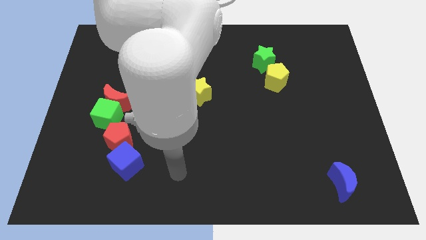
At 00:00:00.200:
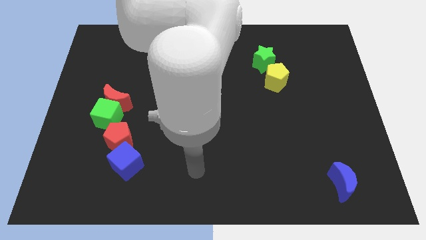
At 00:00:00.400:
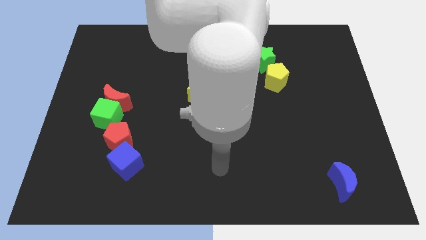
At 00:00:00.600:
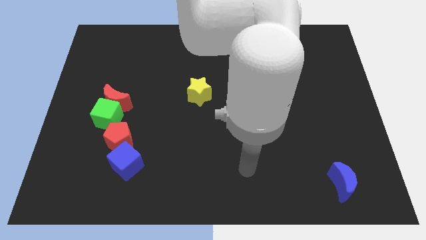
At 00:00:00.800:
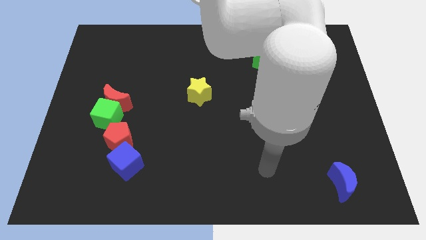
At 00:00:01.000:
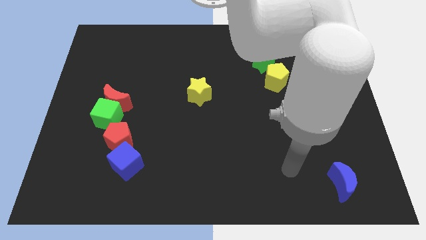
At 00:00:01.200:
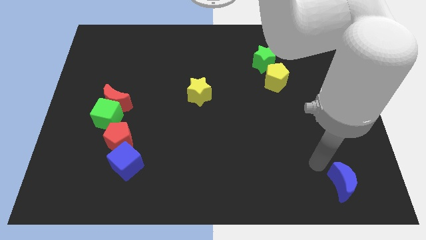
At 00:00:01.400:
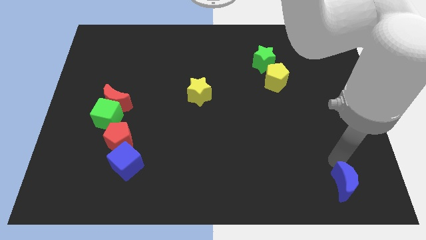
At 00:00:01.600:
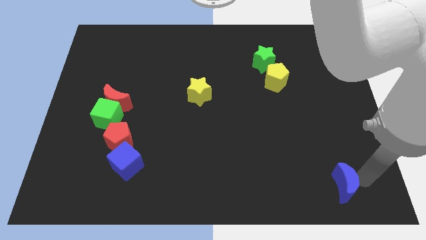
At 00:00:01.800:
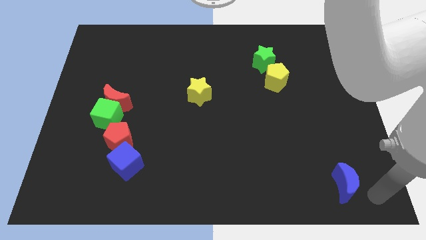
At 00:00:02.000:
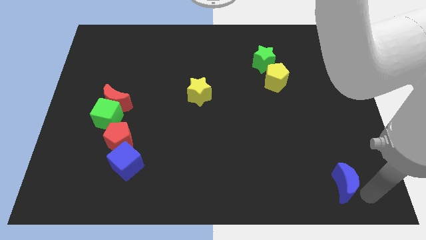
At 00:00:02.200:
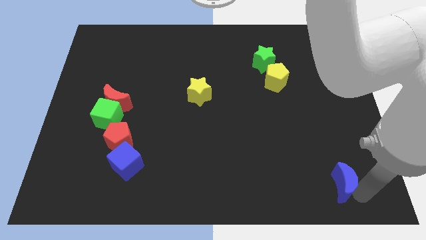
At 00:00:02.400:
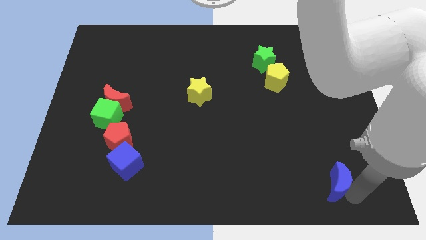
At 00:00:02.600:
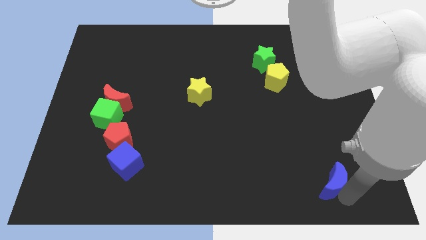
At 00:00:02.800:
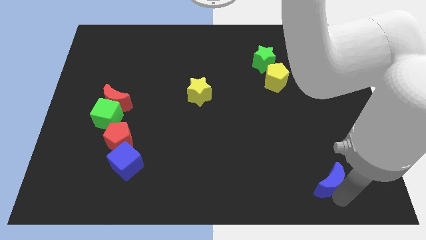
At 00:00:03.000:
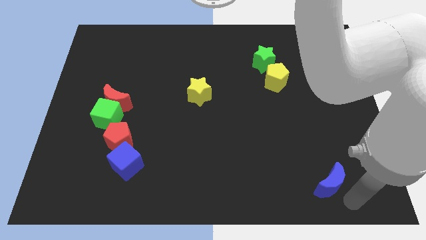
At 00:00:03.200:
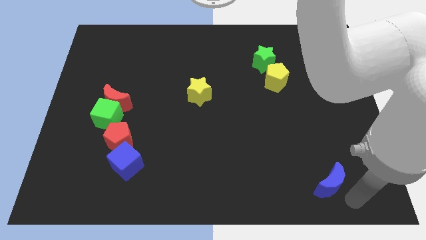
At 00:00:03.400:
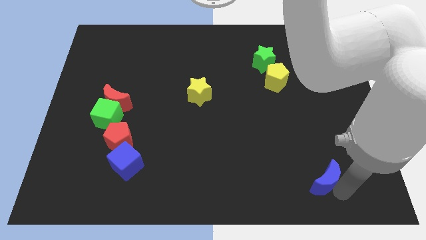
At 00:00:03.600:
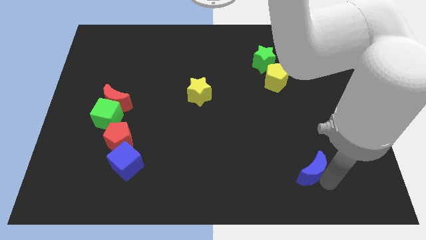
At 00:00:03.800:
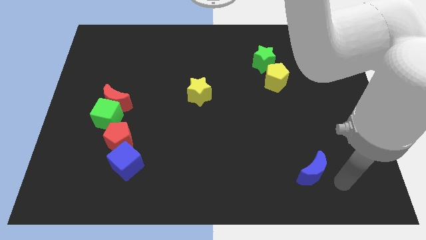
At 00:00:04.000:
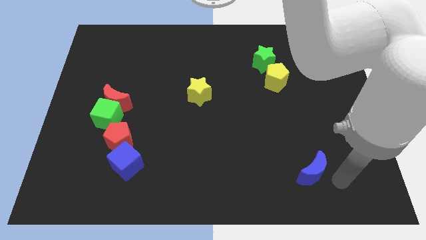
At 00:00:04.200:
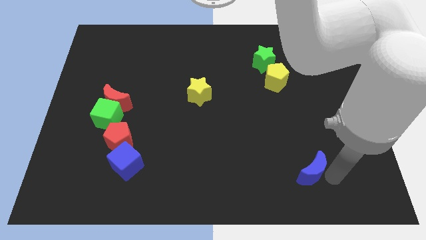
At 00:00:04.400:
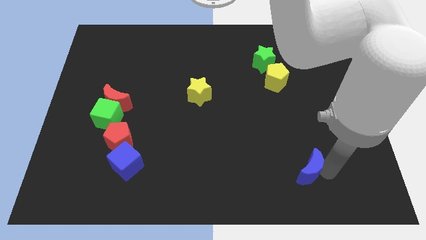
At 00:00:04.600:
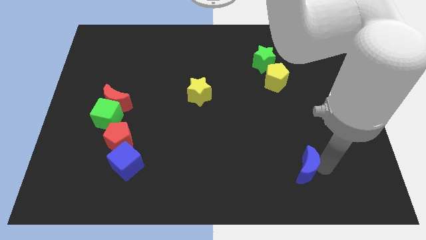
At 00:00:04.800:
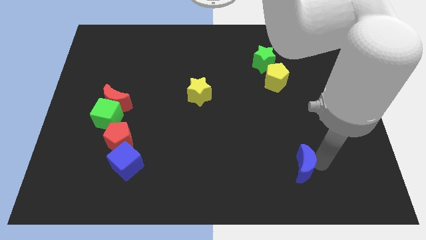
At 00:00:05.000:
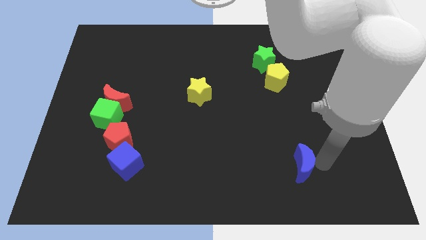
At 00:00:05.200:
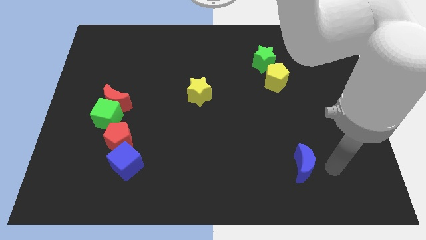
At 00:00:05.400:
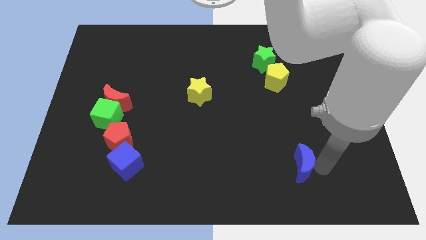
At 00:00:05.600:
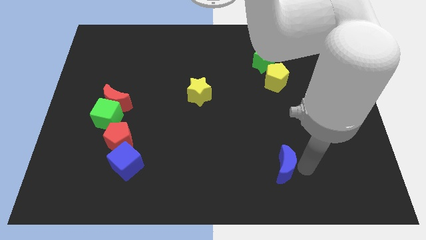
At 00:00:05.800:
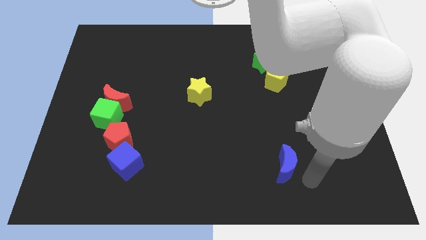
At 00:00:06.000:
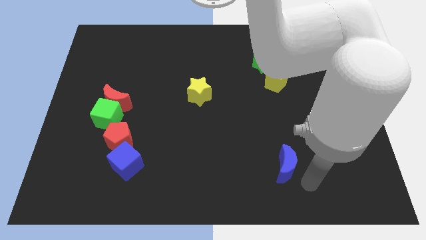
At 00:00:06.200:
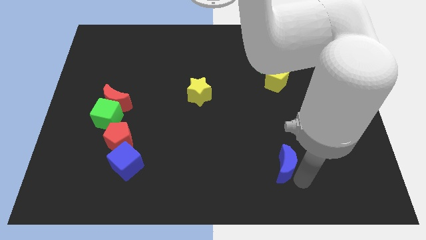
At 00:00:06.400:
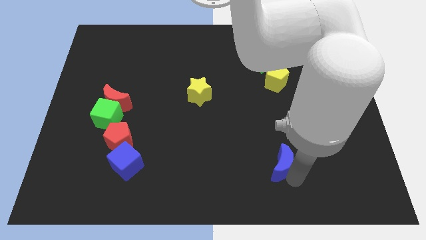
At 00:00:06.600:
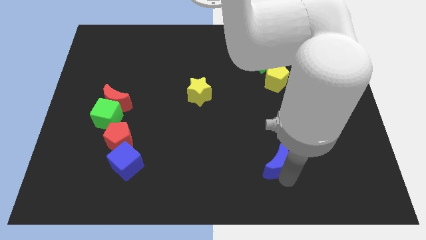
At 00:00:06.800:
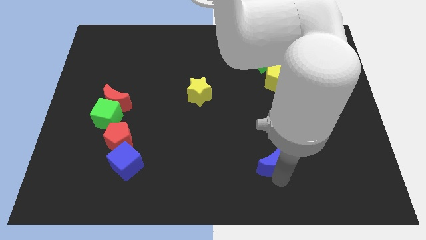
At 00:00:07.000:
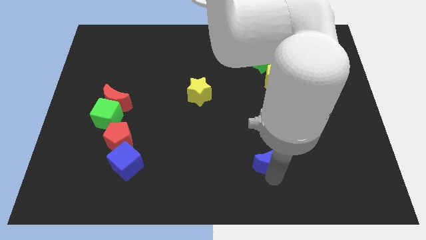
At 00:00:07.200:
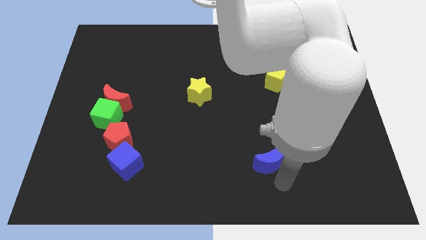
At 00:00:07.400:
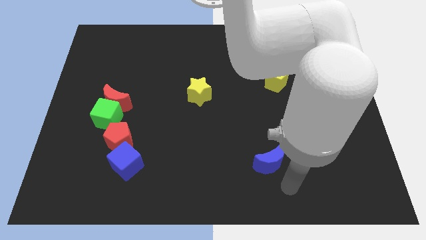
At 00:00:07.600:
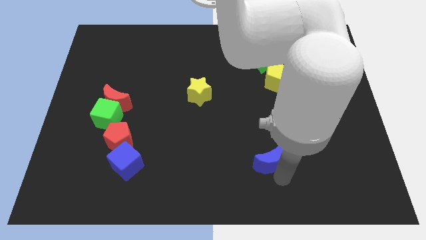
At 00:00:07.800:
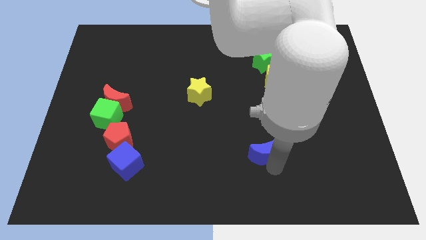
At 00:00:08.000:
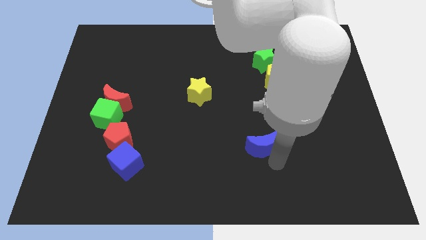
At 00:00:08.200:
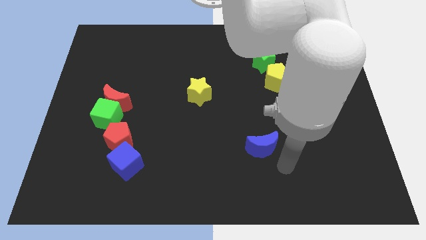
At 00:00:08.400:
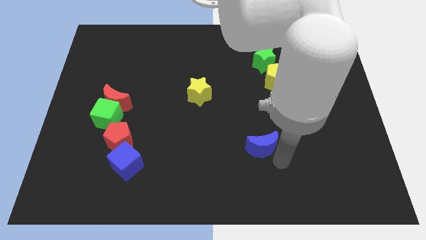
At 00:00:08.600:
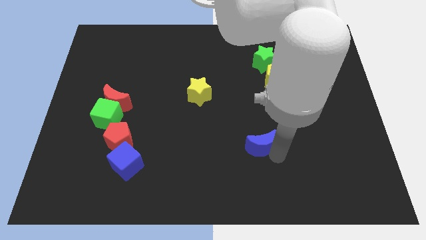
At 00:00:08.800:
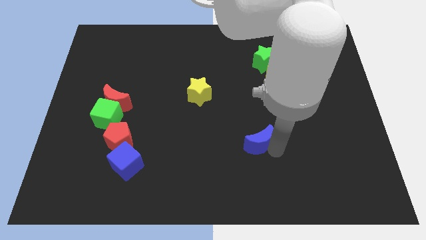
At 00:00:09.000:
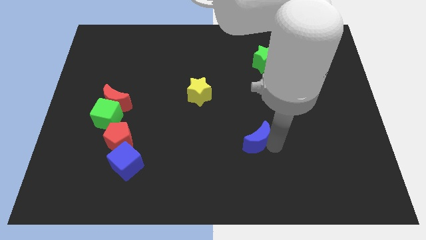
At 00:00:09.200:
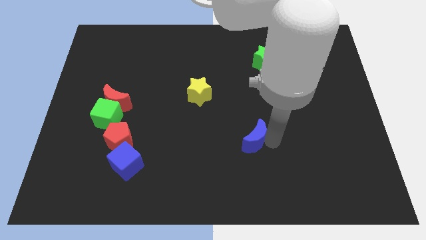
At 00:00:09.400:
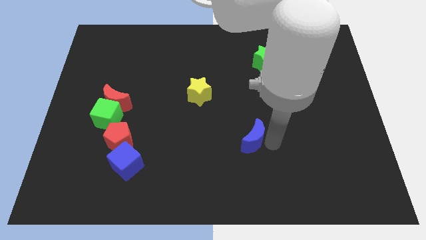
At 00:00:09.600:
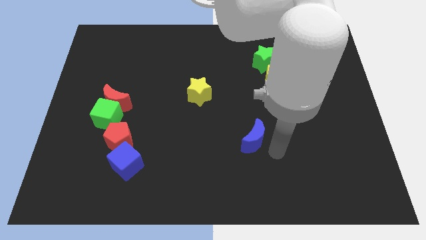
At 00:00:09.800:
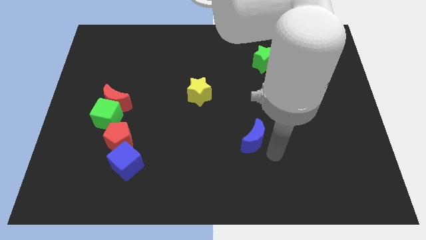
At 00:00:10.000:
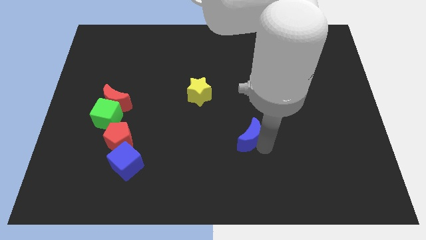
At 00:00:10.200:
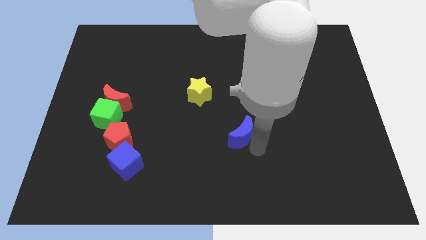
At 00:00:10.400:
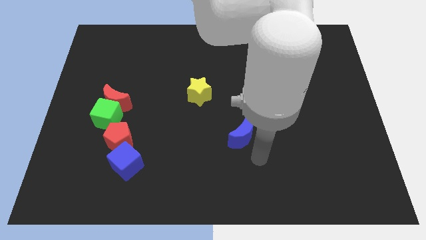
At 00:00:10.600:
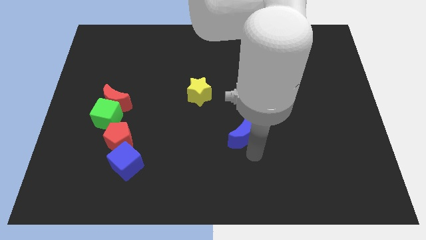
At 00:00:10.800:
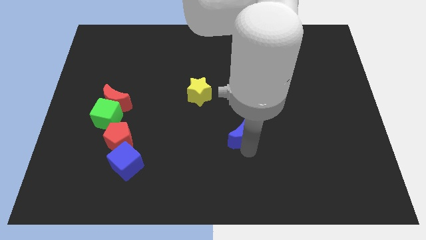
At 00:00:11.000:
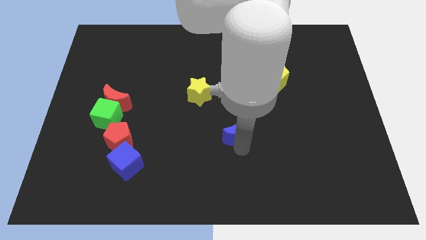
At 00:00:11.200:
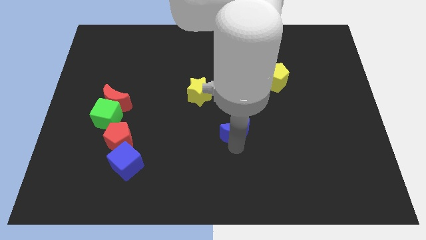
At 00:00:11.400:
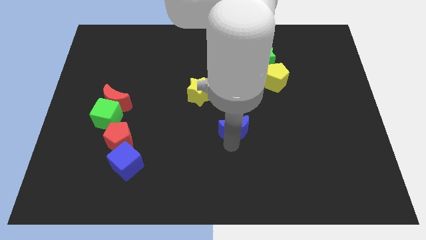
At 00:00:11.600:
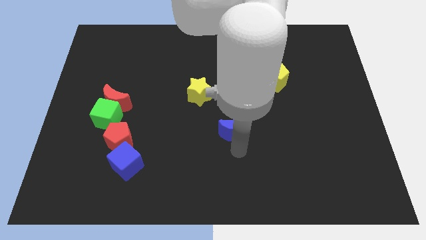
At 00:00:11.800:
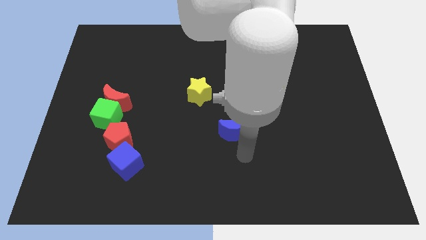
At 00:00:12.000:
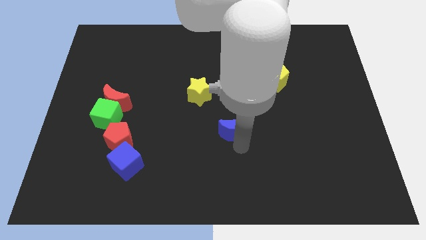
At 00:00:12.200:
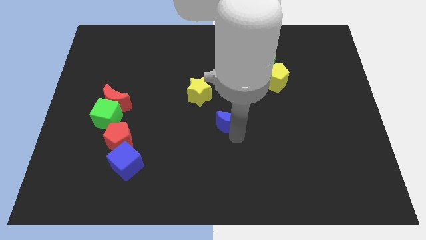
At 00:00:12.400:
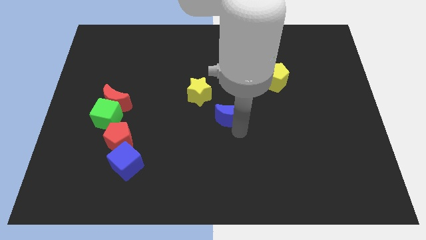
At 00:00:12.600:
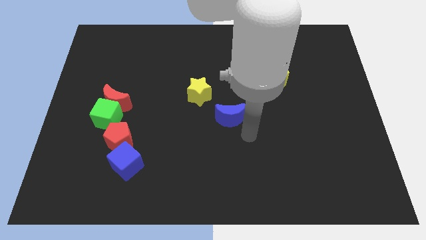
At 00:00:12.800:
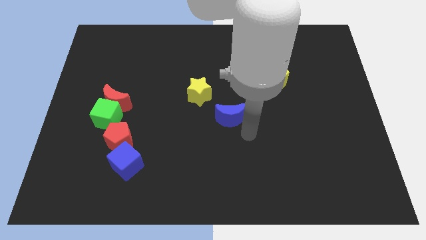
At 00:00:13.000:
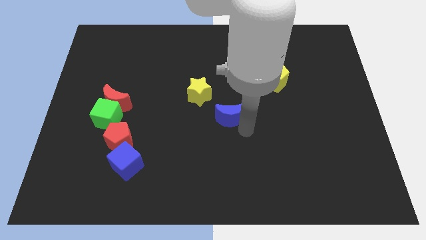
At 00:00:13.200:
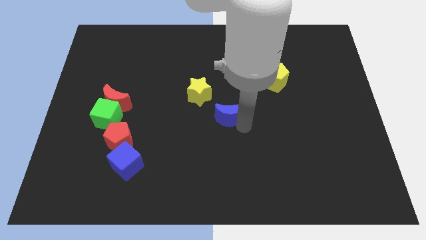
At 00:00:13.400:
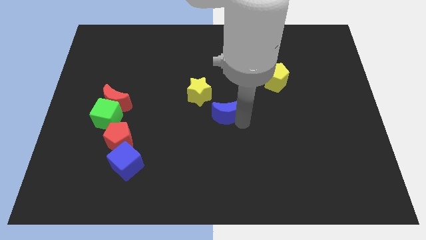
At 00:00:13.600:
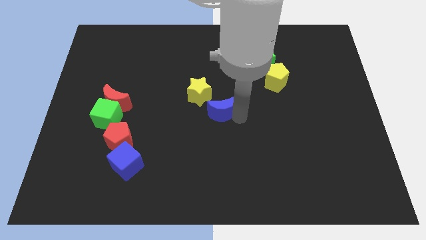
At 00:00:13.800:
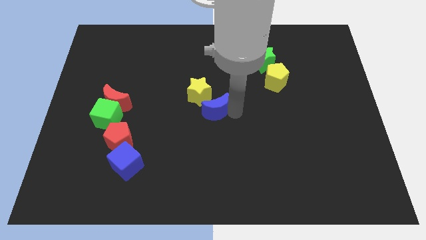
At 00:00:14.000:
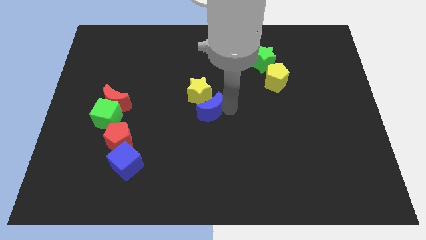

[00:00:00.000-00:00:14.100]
move the blue moon next to the yellow star
